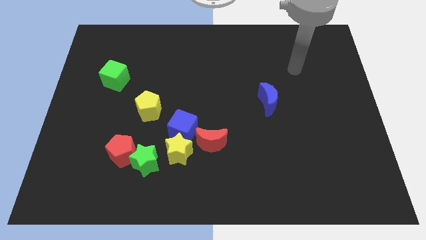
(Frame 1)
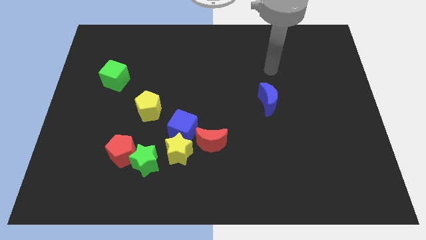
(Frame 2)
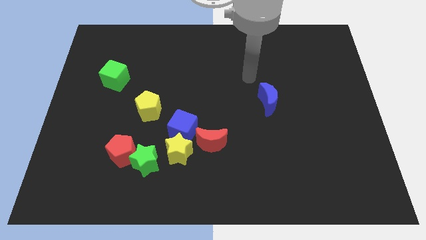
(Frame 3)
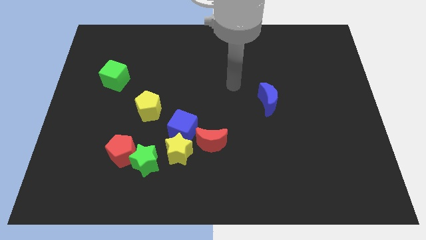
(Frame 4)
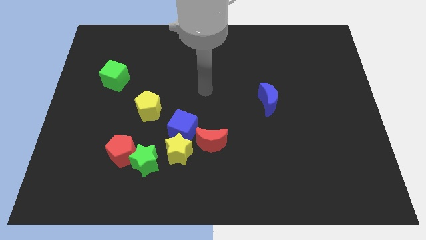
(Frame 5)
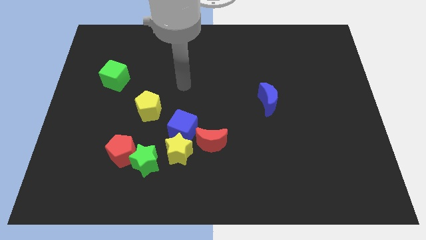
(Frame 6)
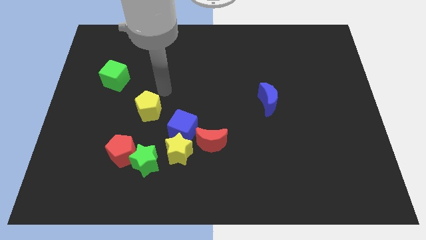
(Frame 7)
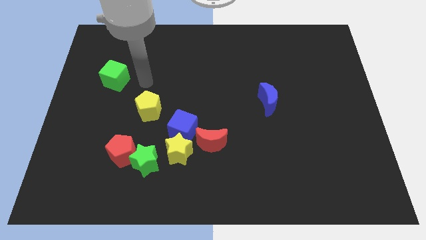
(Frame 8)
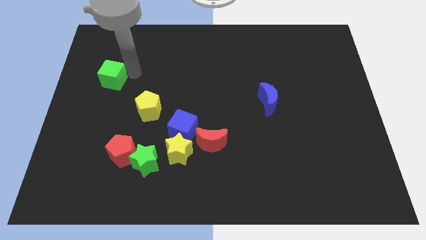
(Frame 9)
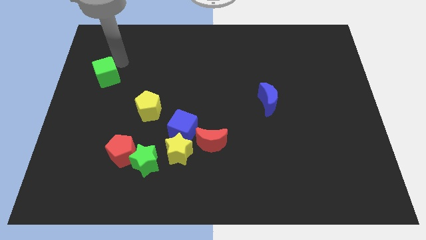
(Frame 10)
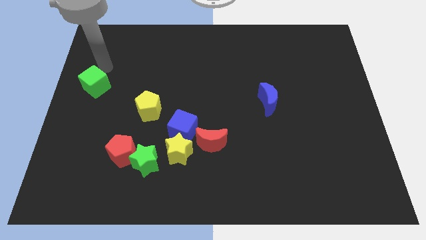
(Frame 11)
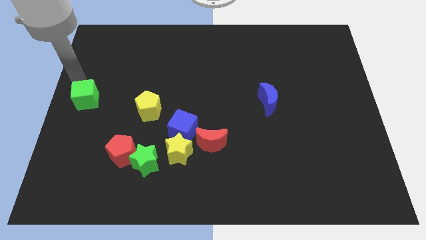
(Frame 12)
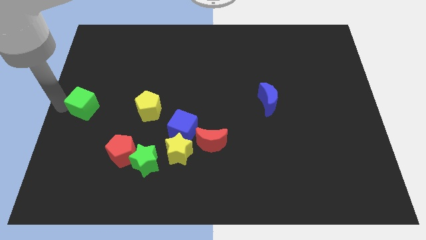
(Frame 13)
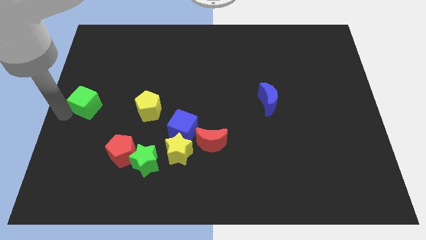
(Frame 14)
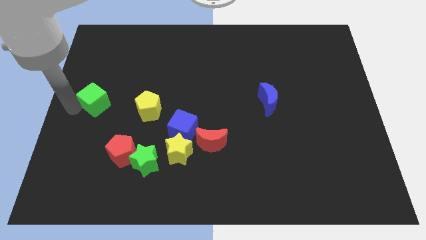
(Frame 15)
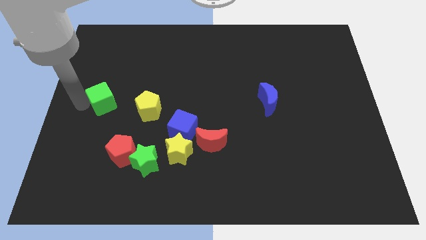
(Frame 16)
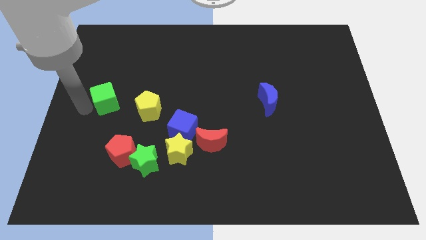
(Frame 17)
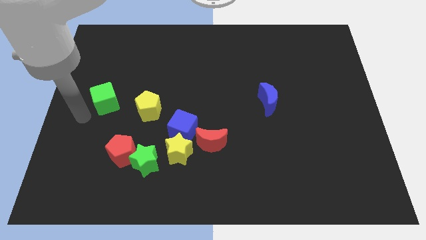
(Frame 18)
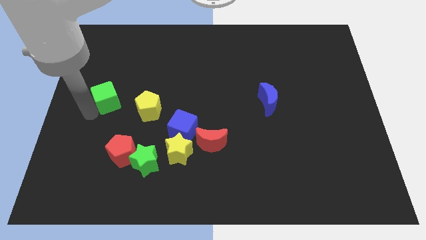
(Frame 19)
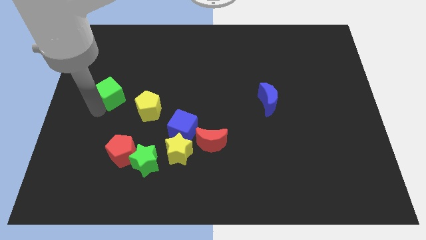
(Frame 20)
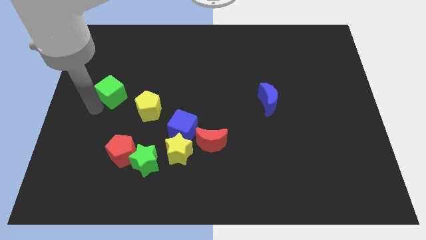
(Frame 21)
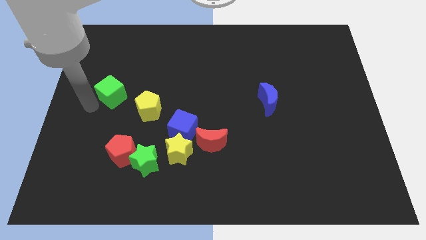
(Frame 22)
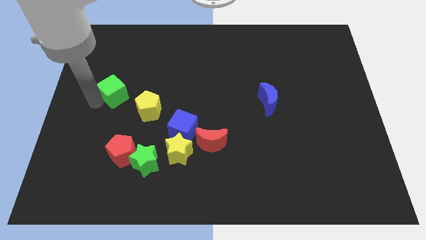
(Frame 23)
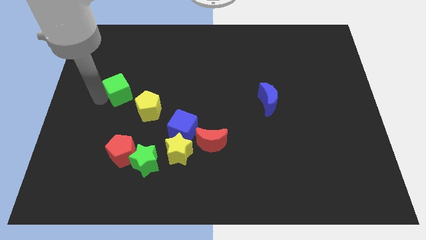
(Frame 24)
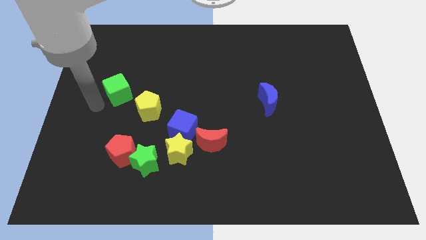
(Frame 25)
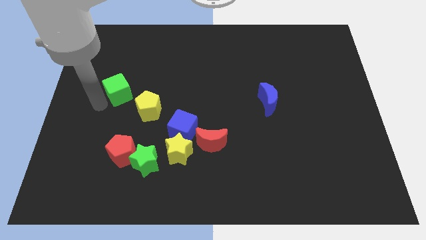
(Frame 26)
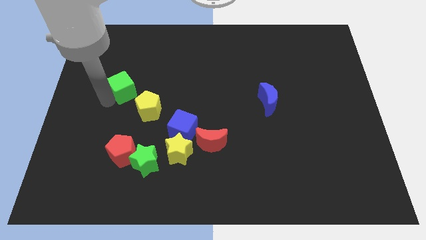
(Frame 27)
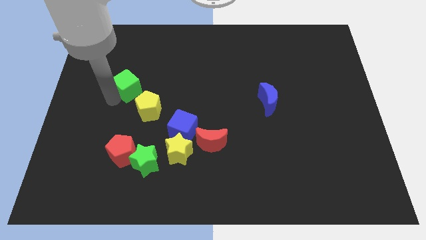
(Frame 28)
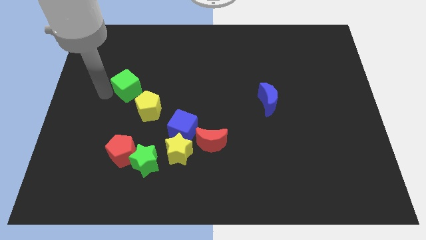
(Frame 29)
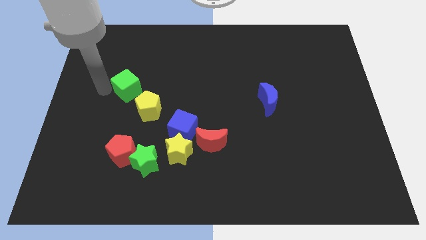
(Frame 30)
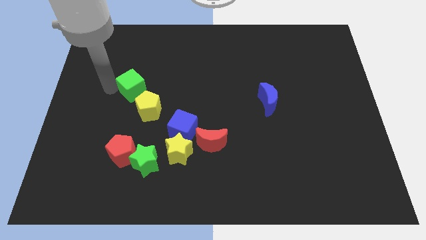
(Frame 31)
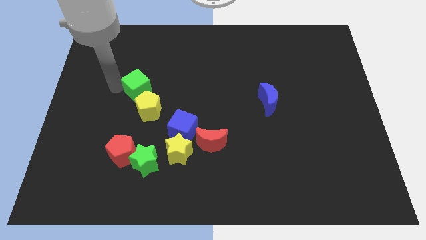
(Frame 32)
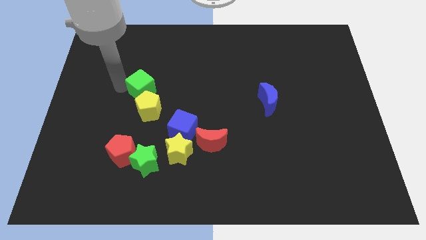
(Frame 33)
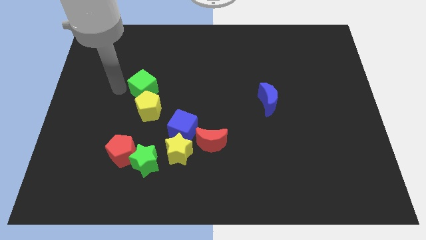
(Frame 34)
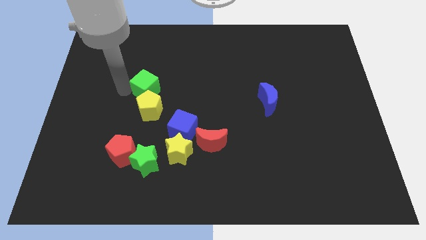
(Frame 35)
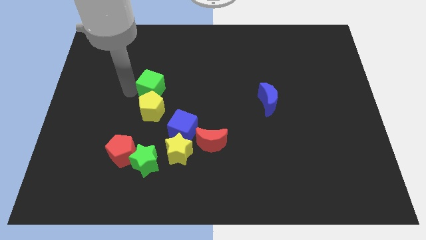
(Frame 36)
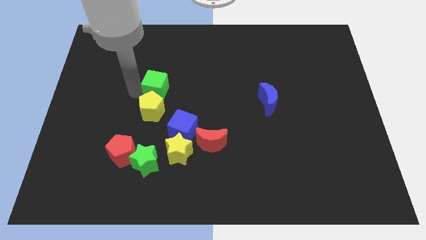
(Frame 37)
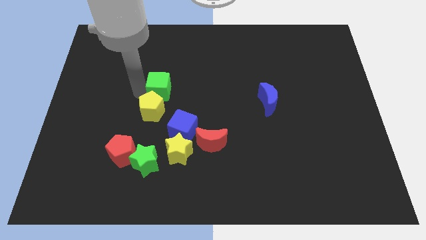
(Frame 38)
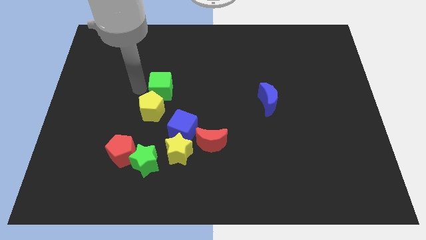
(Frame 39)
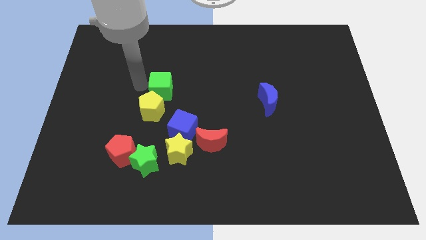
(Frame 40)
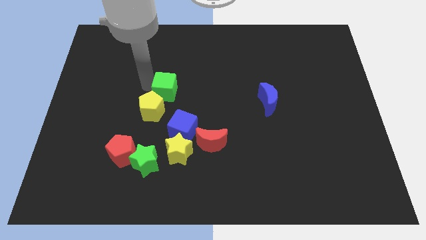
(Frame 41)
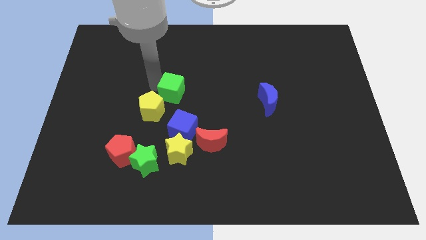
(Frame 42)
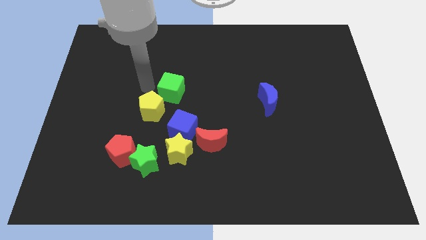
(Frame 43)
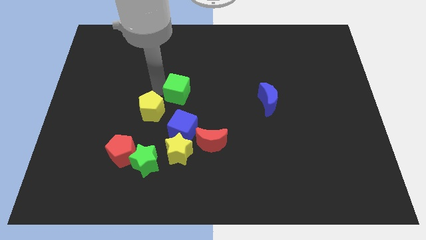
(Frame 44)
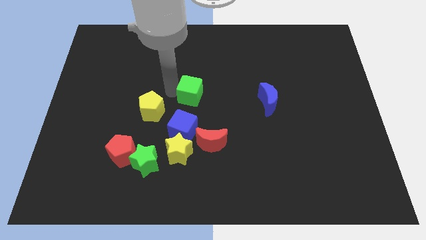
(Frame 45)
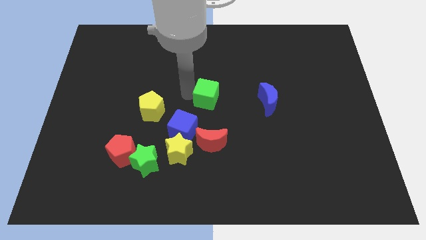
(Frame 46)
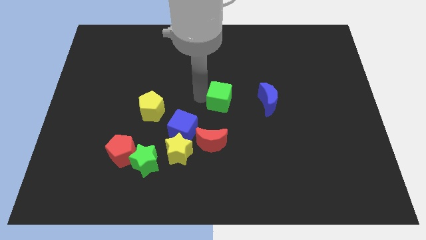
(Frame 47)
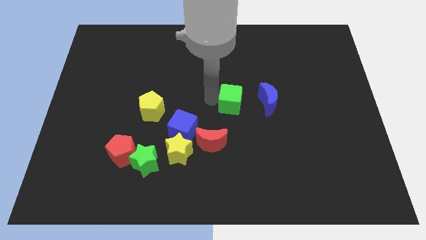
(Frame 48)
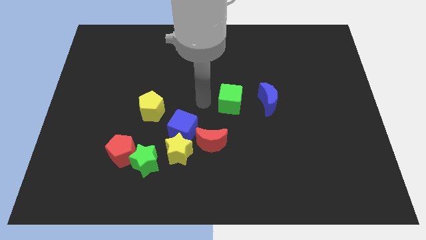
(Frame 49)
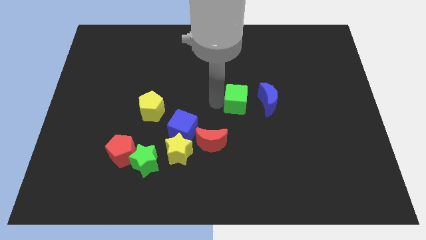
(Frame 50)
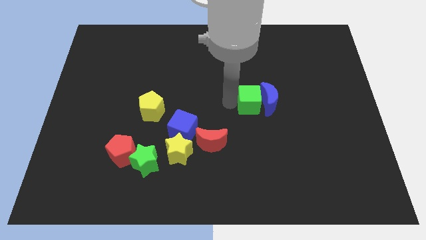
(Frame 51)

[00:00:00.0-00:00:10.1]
slide the green cube close to the blue moon

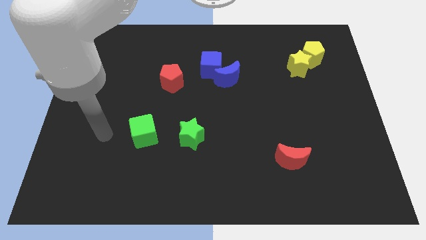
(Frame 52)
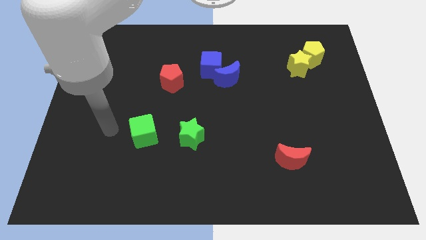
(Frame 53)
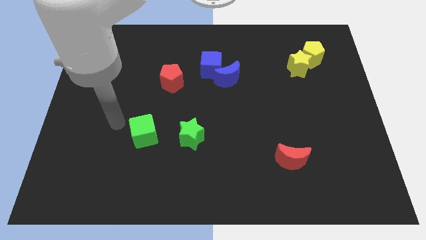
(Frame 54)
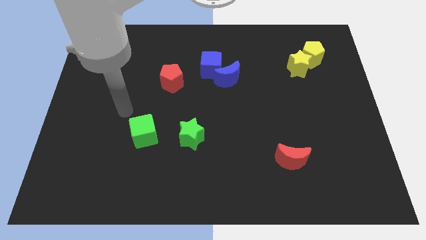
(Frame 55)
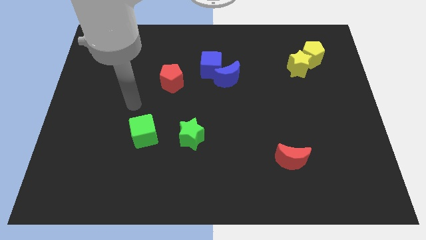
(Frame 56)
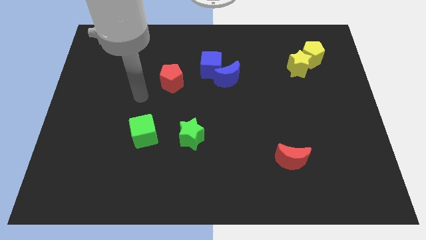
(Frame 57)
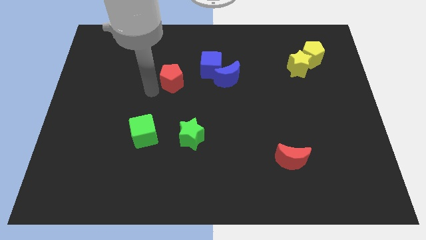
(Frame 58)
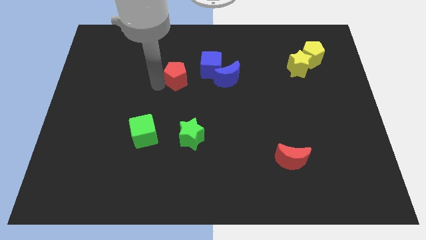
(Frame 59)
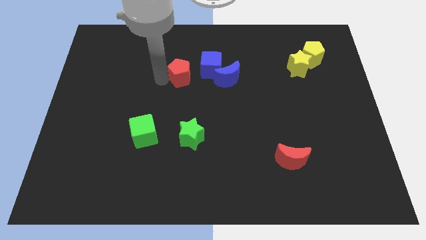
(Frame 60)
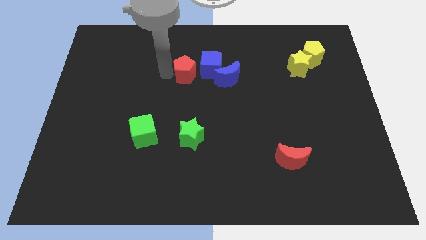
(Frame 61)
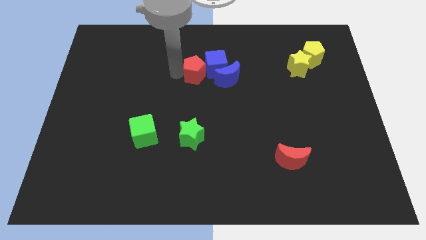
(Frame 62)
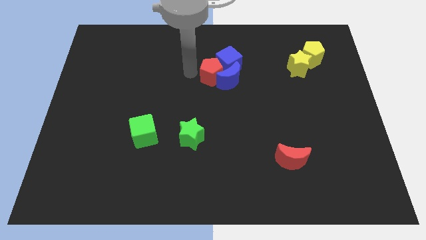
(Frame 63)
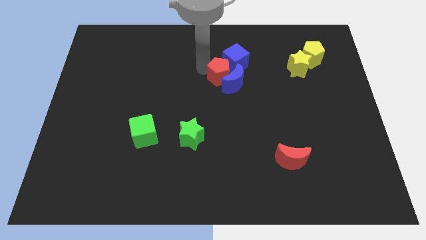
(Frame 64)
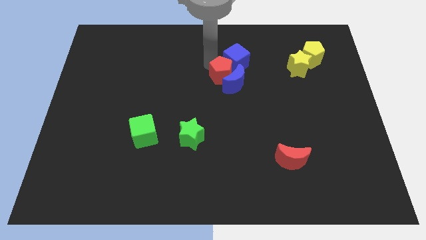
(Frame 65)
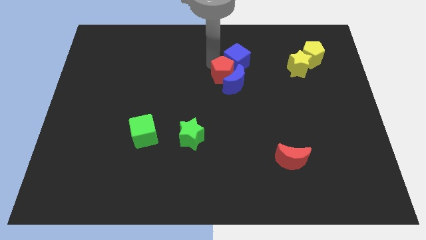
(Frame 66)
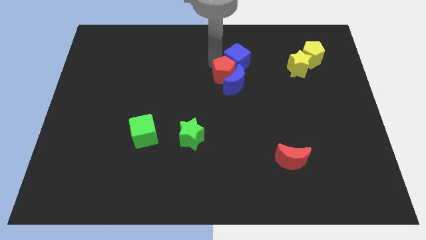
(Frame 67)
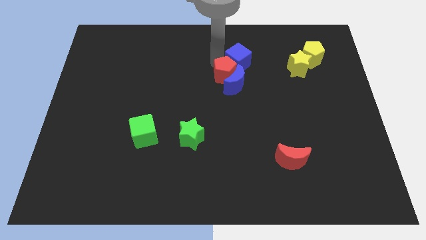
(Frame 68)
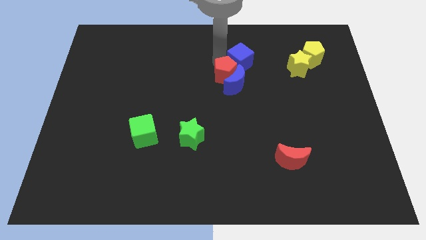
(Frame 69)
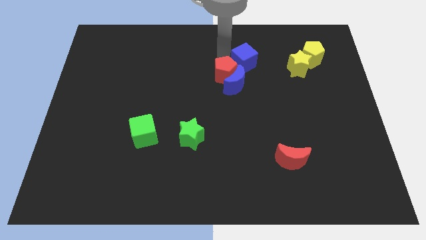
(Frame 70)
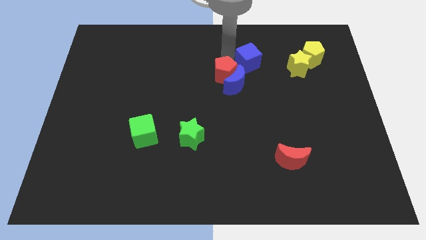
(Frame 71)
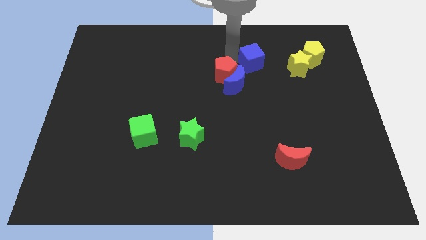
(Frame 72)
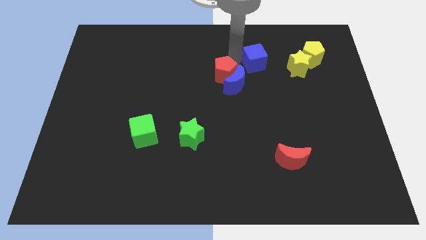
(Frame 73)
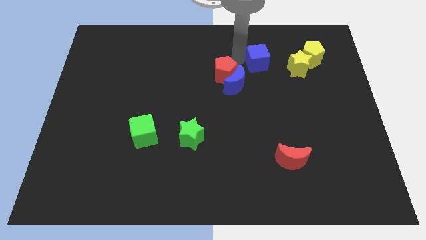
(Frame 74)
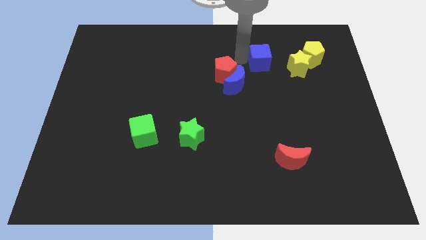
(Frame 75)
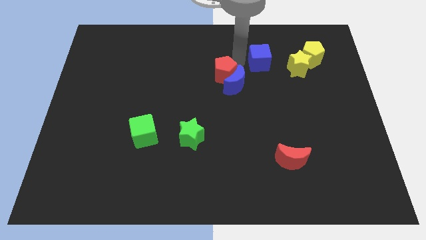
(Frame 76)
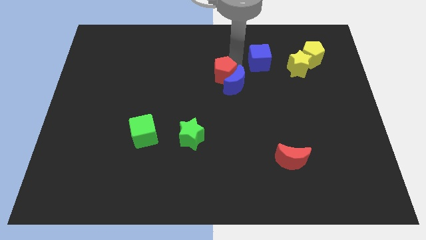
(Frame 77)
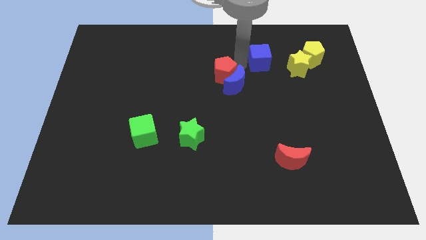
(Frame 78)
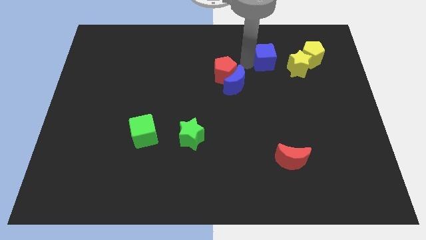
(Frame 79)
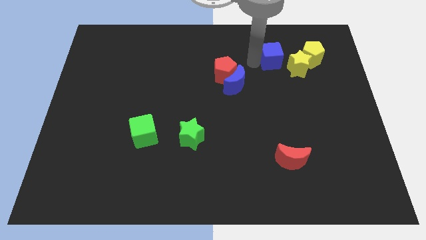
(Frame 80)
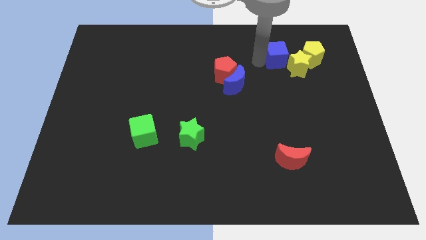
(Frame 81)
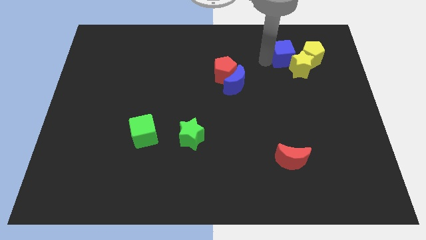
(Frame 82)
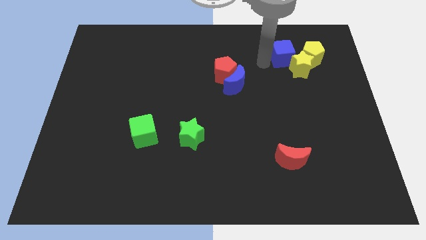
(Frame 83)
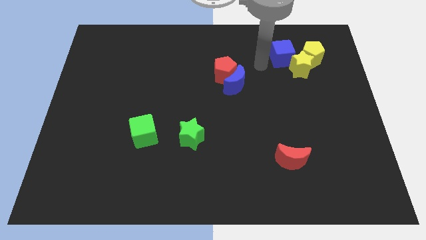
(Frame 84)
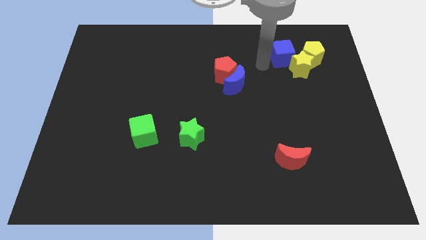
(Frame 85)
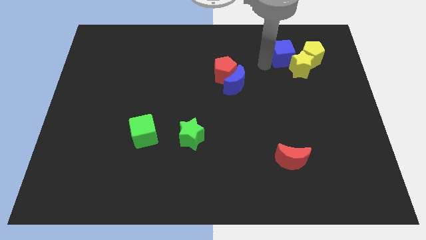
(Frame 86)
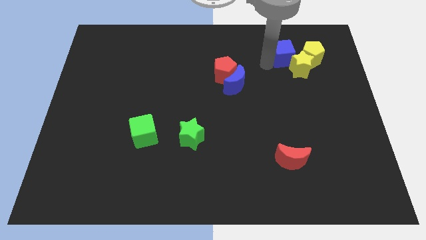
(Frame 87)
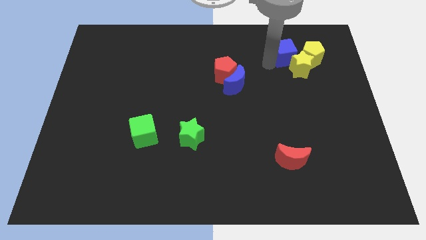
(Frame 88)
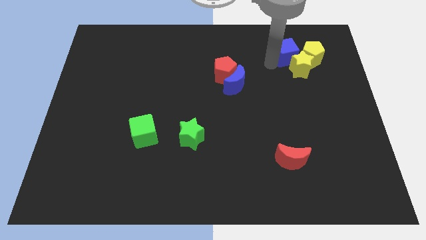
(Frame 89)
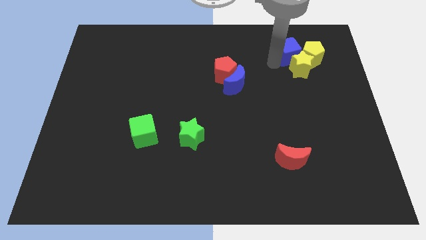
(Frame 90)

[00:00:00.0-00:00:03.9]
slide the blue cube close to the yellow pentagon
